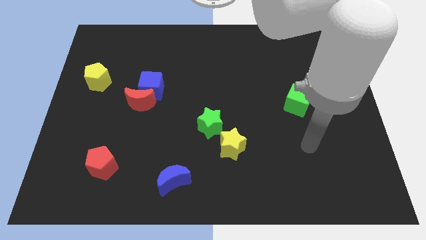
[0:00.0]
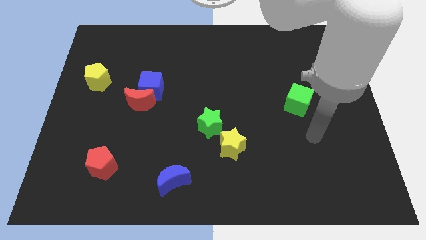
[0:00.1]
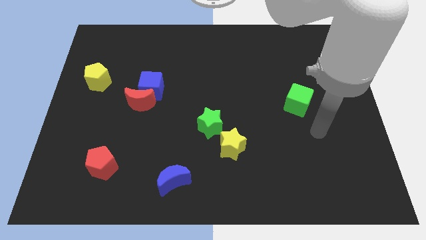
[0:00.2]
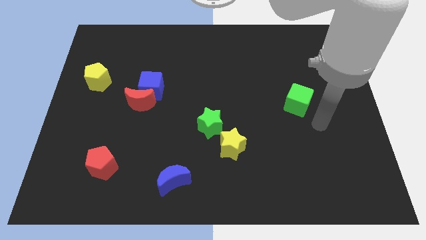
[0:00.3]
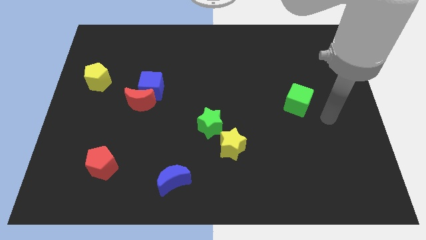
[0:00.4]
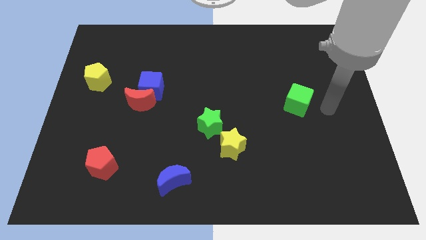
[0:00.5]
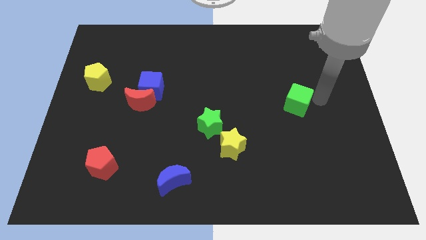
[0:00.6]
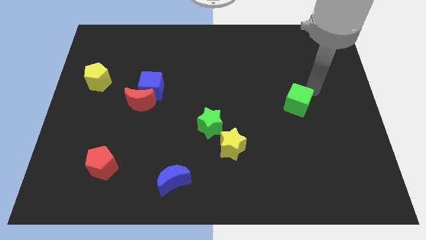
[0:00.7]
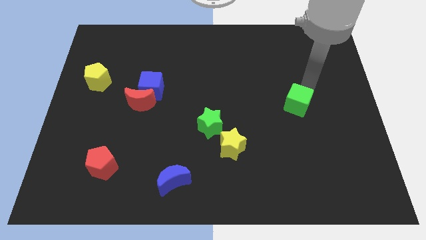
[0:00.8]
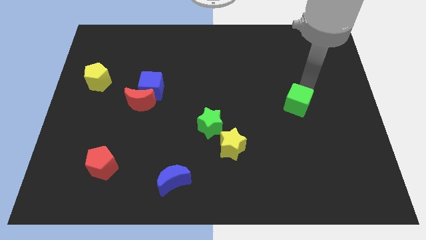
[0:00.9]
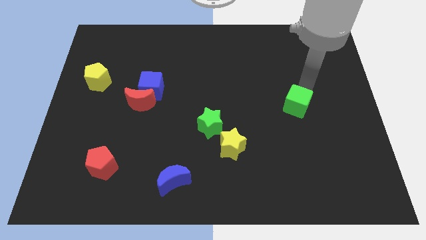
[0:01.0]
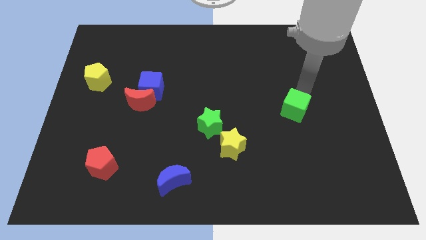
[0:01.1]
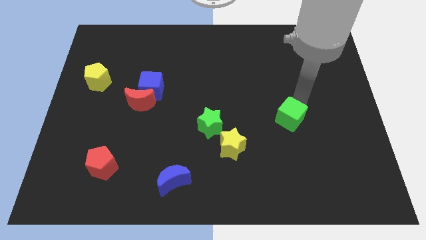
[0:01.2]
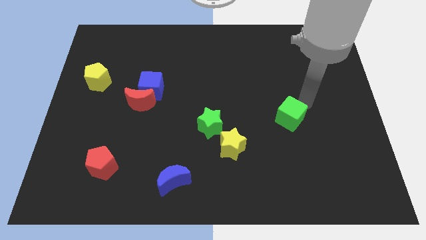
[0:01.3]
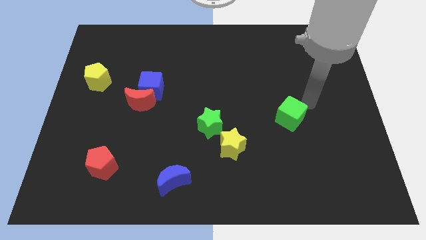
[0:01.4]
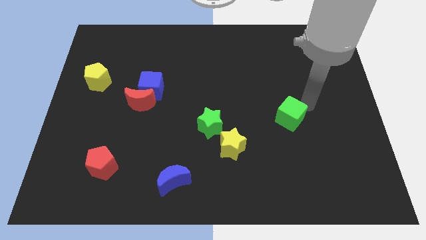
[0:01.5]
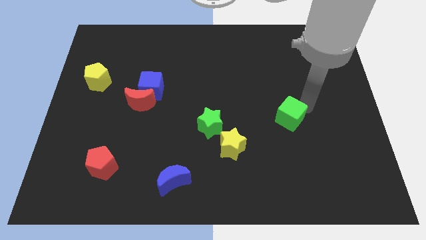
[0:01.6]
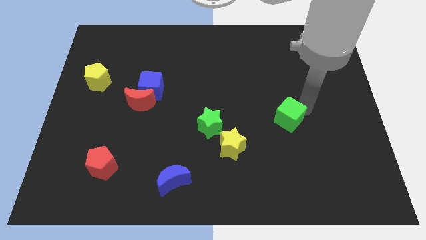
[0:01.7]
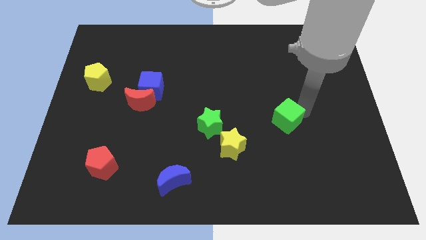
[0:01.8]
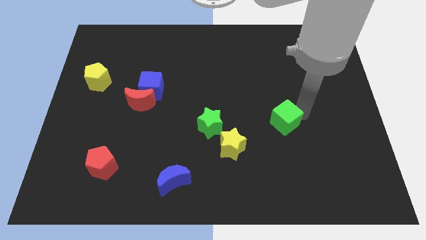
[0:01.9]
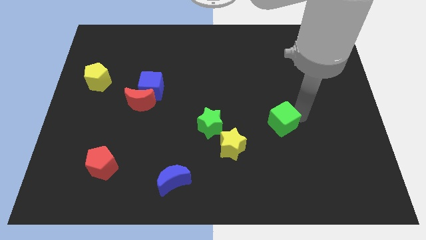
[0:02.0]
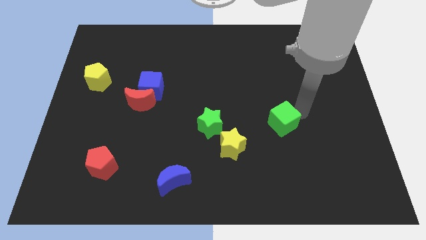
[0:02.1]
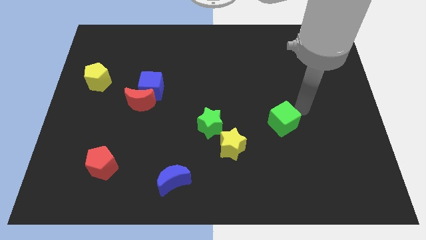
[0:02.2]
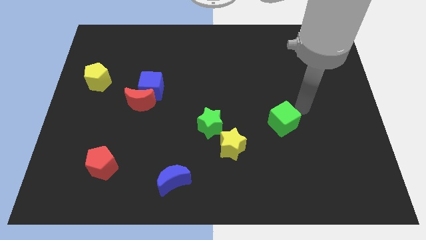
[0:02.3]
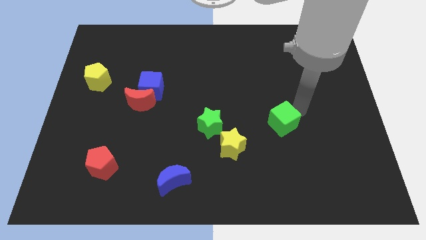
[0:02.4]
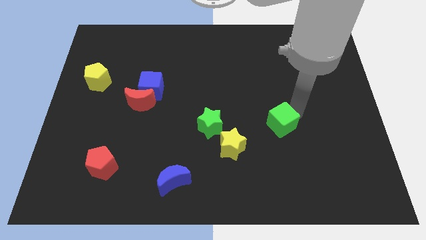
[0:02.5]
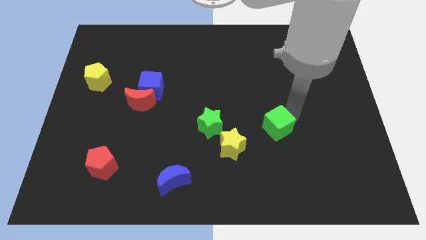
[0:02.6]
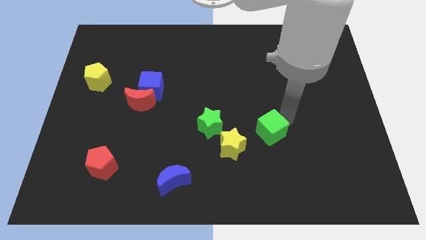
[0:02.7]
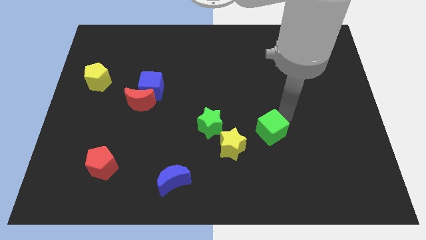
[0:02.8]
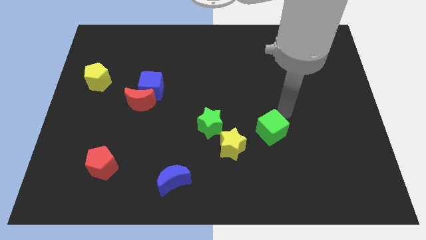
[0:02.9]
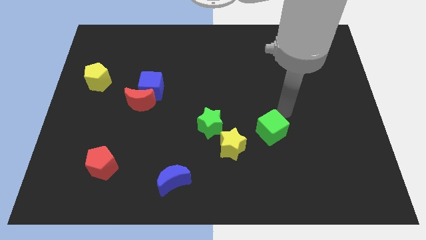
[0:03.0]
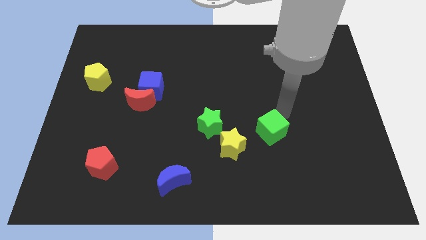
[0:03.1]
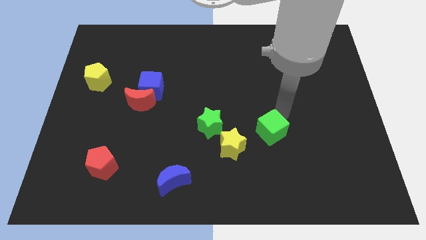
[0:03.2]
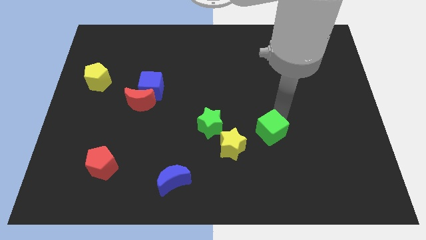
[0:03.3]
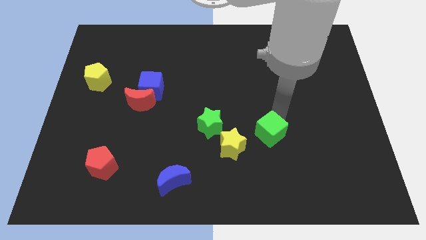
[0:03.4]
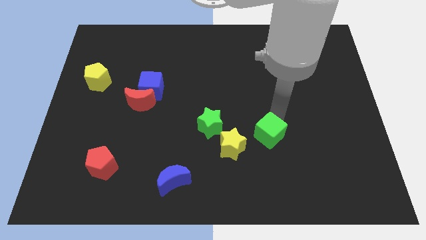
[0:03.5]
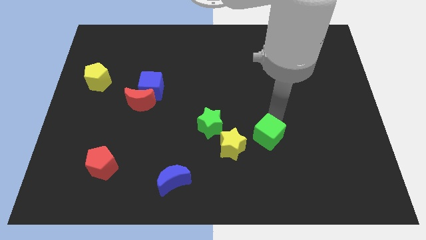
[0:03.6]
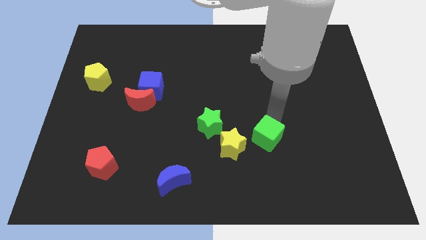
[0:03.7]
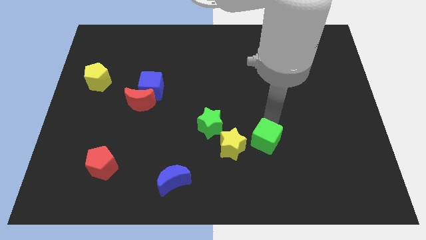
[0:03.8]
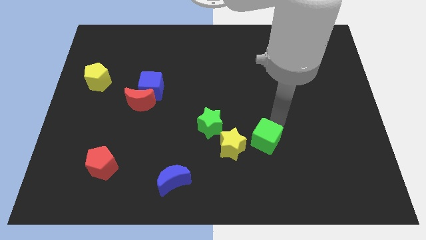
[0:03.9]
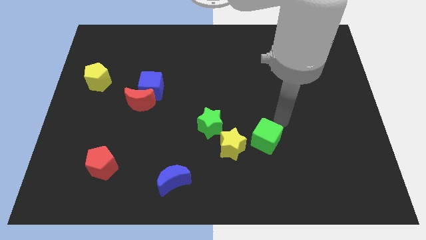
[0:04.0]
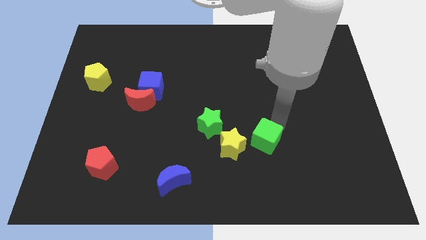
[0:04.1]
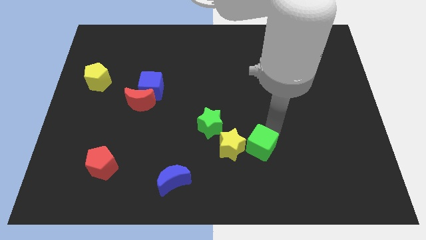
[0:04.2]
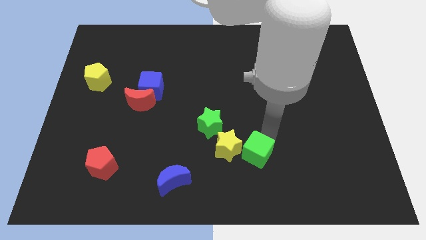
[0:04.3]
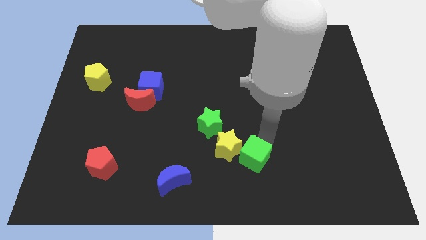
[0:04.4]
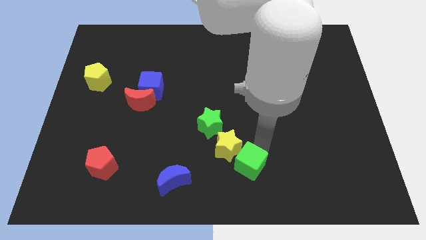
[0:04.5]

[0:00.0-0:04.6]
push the green cube to the bottom

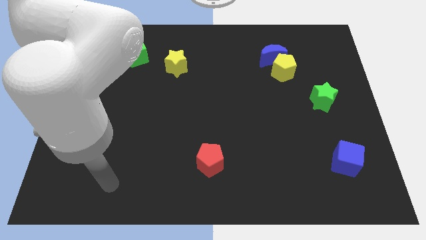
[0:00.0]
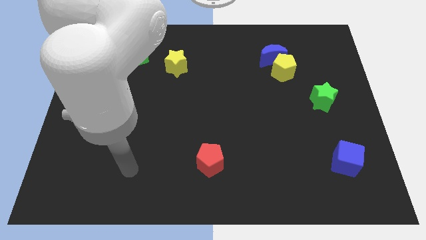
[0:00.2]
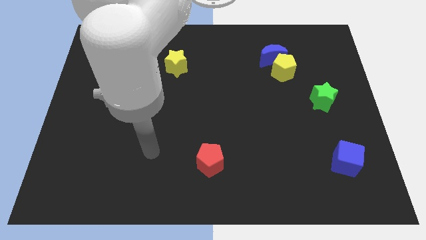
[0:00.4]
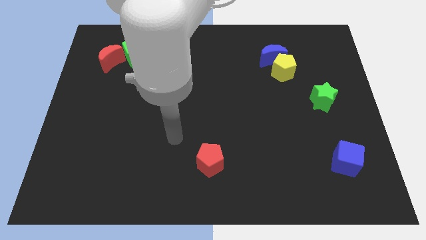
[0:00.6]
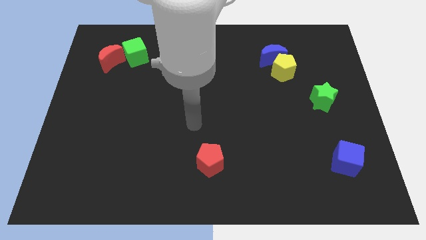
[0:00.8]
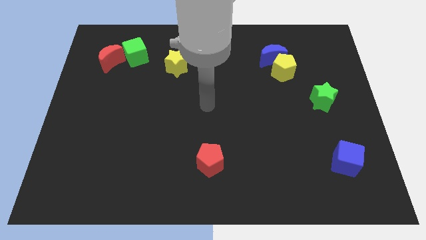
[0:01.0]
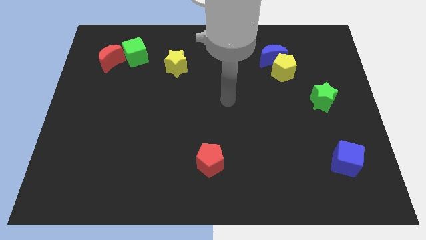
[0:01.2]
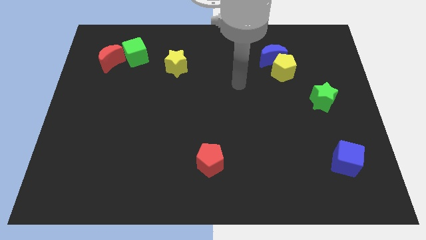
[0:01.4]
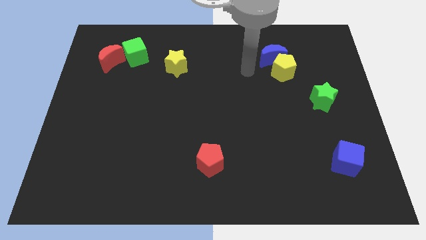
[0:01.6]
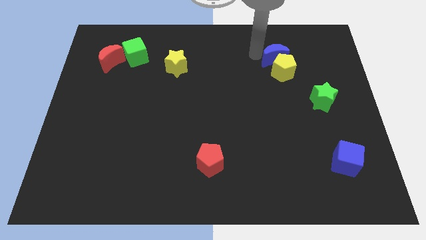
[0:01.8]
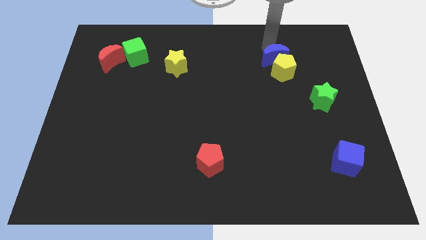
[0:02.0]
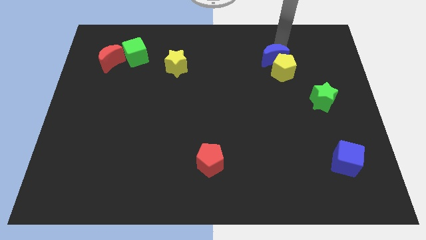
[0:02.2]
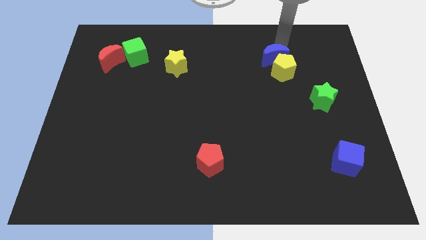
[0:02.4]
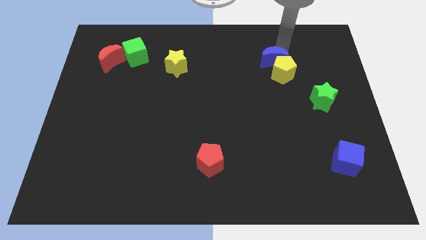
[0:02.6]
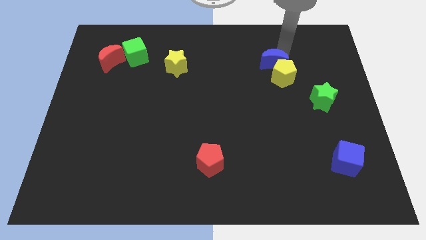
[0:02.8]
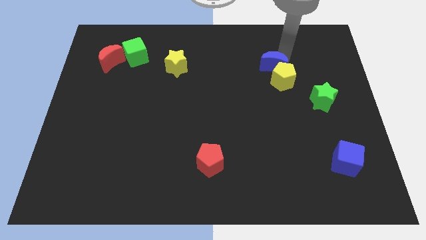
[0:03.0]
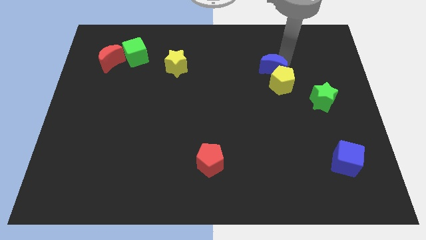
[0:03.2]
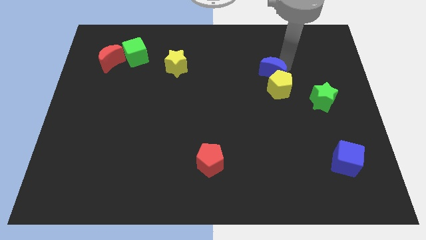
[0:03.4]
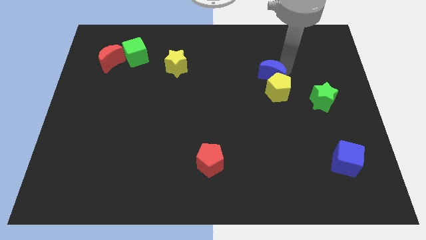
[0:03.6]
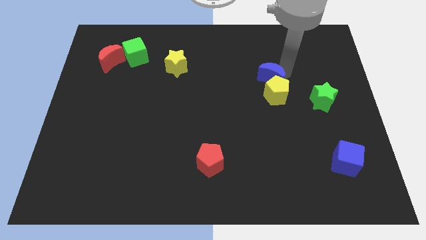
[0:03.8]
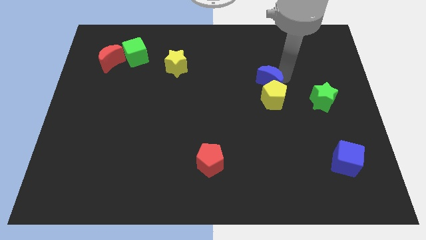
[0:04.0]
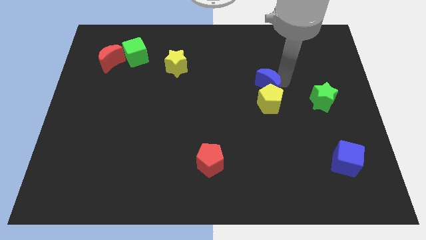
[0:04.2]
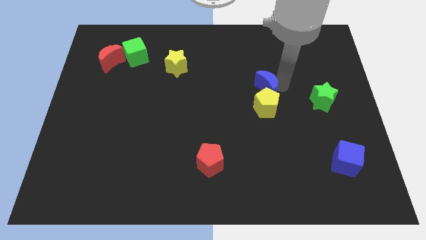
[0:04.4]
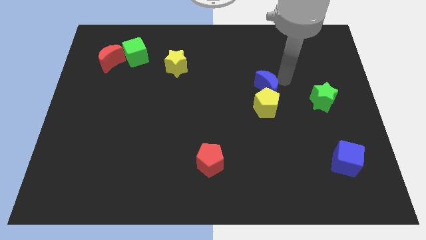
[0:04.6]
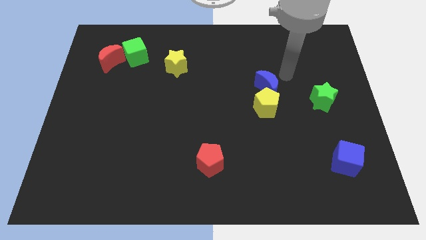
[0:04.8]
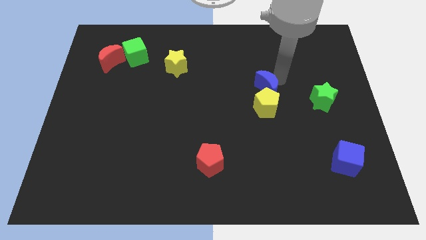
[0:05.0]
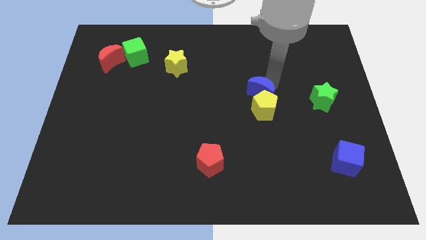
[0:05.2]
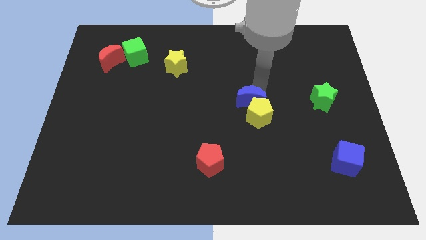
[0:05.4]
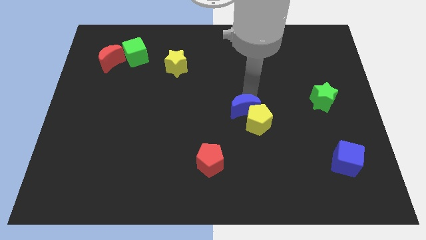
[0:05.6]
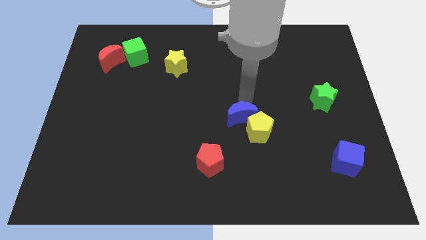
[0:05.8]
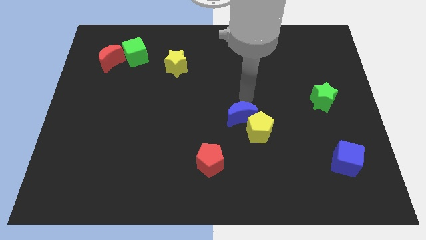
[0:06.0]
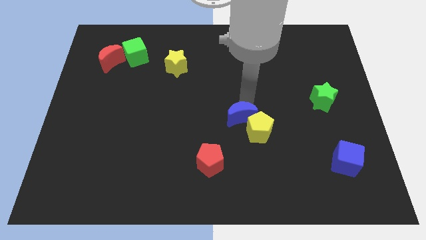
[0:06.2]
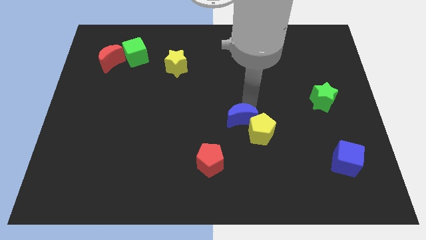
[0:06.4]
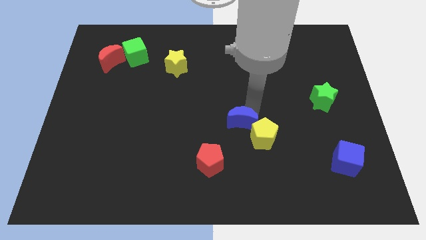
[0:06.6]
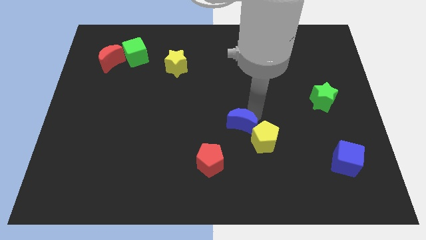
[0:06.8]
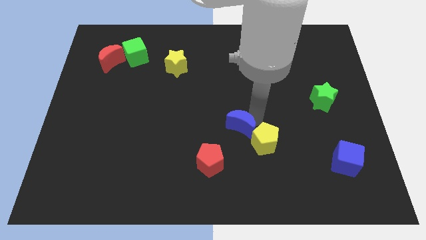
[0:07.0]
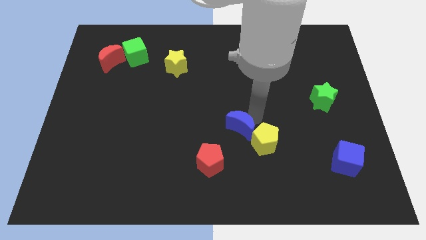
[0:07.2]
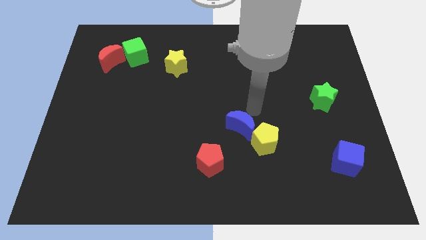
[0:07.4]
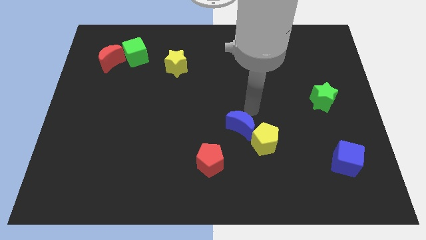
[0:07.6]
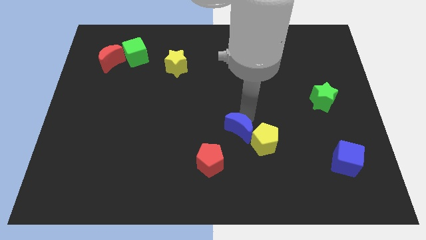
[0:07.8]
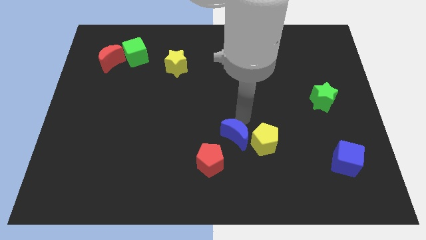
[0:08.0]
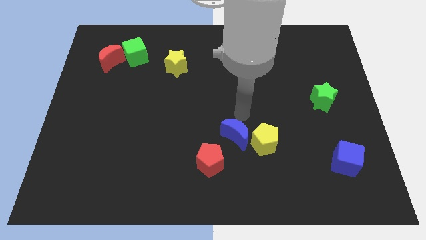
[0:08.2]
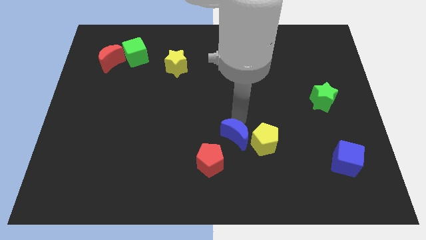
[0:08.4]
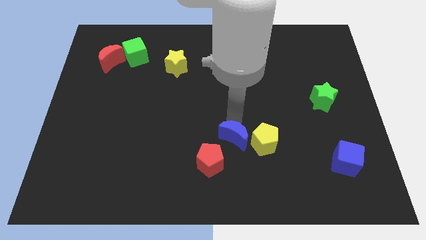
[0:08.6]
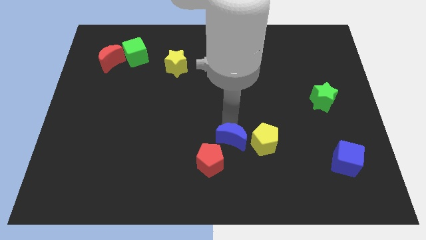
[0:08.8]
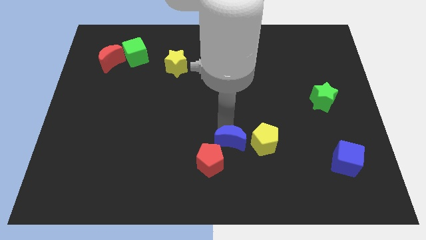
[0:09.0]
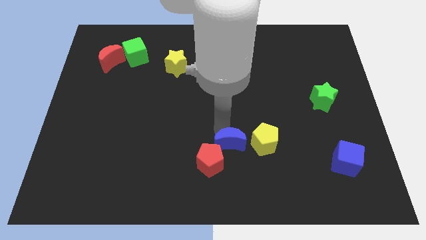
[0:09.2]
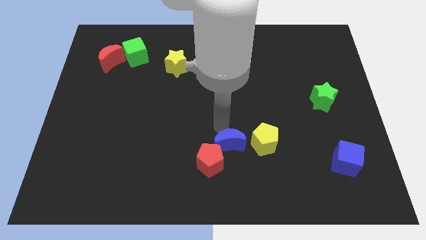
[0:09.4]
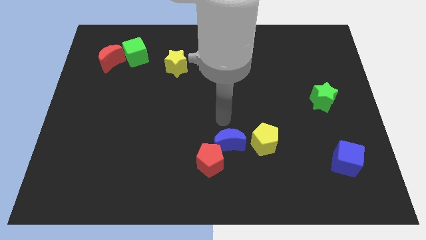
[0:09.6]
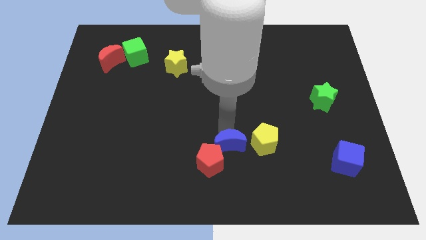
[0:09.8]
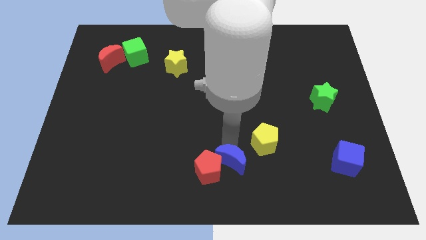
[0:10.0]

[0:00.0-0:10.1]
move the blue moon to the bottom
